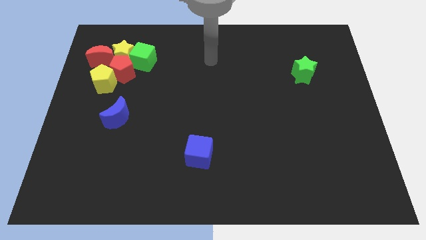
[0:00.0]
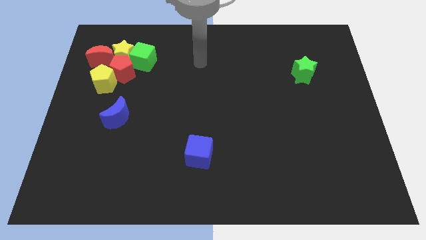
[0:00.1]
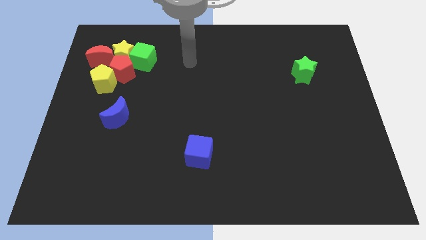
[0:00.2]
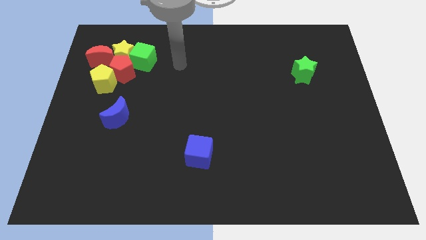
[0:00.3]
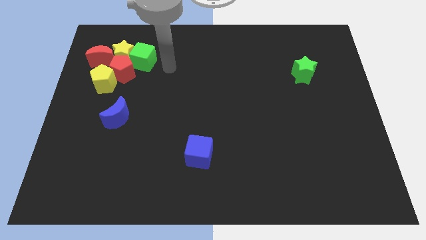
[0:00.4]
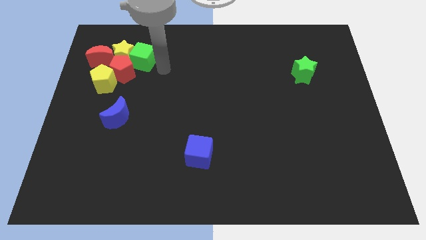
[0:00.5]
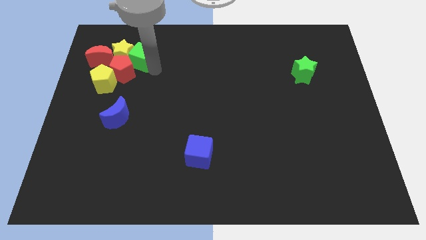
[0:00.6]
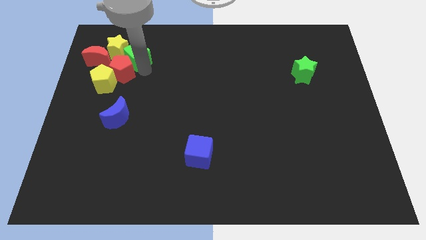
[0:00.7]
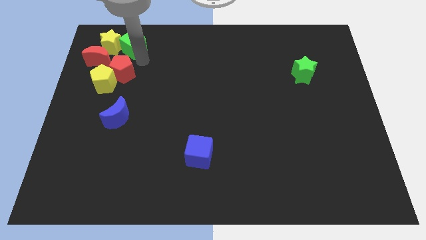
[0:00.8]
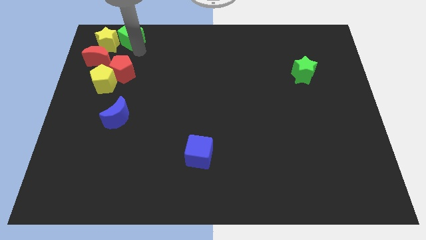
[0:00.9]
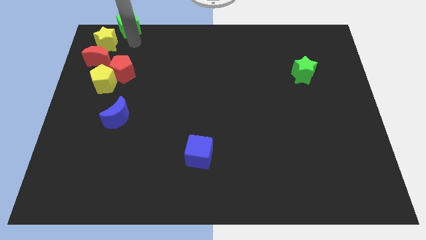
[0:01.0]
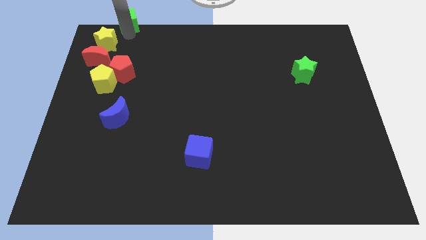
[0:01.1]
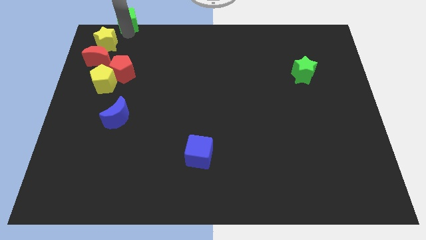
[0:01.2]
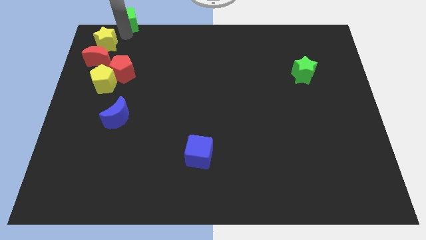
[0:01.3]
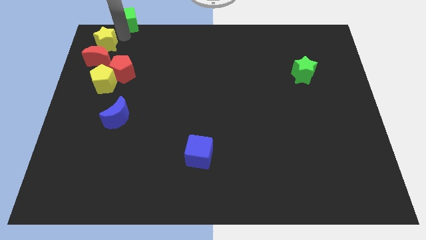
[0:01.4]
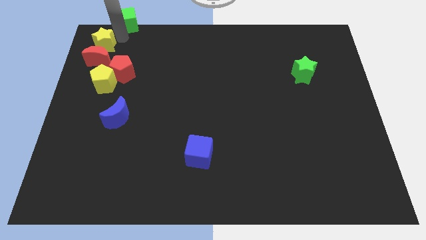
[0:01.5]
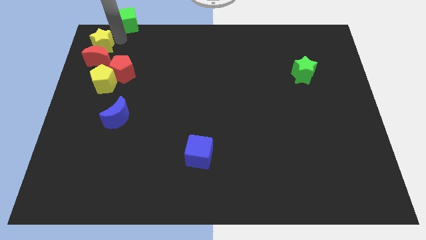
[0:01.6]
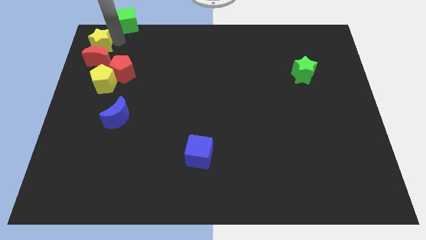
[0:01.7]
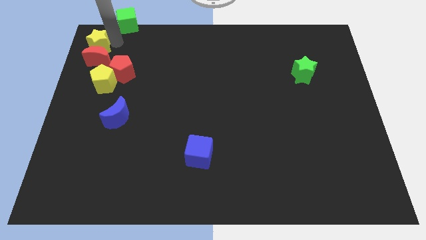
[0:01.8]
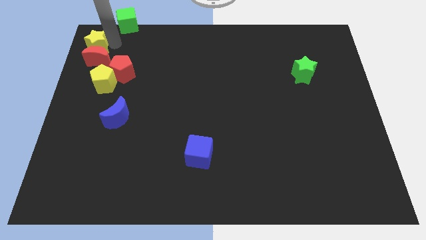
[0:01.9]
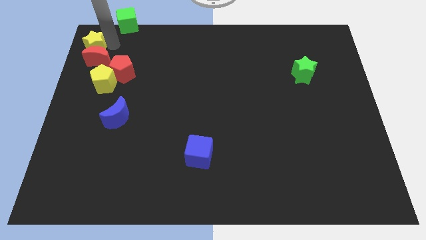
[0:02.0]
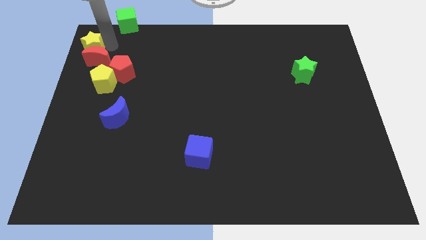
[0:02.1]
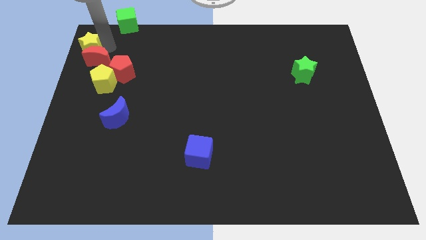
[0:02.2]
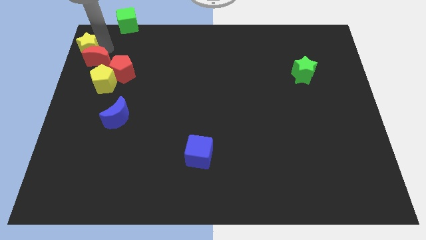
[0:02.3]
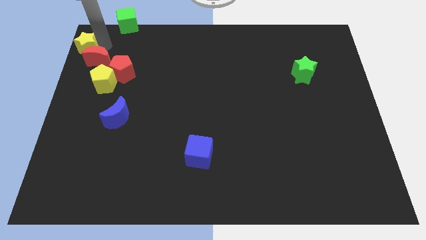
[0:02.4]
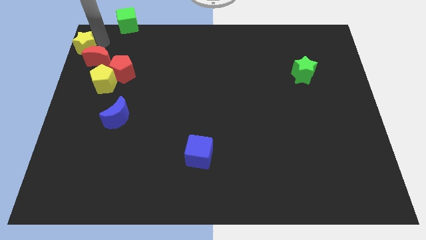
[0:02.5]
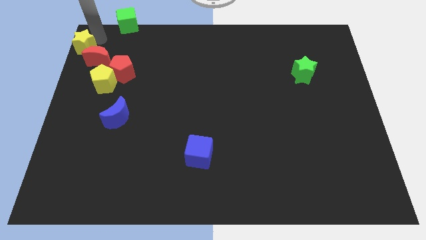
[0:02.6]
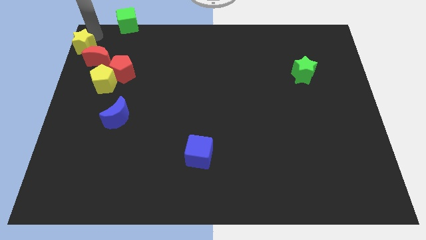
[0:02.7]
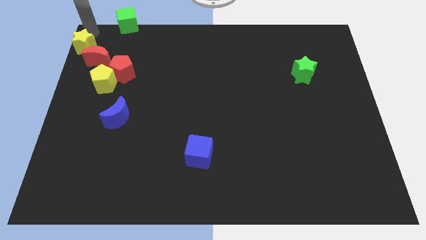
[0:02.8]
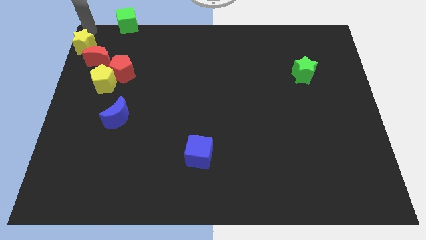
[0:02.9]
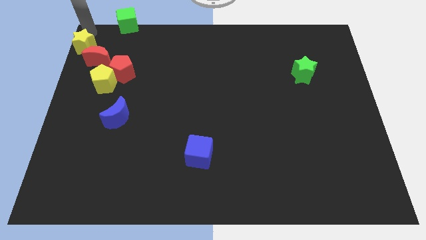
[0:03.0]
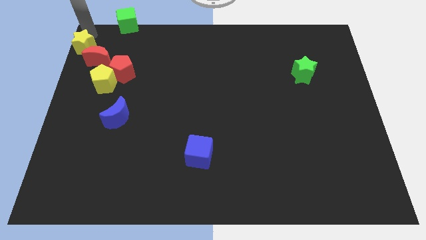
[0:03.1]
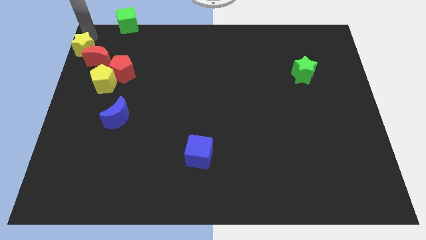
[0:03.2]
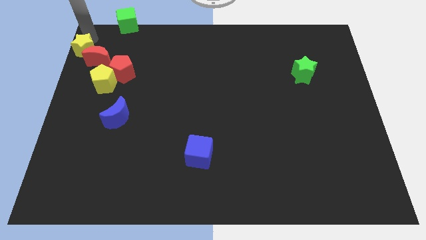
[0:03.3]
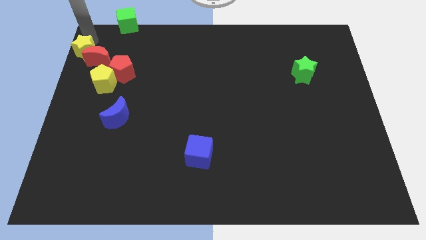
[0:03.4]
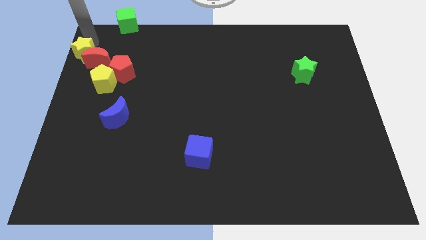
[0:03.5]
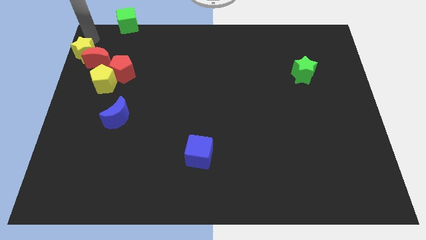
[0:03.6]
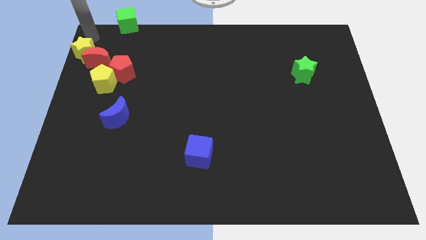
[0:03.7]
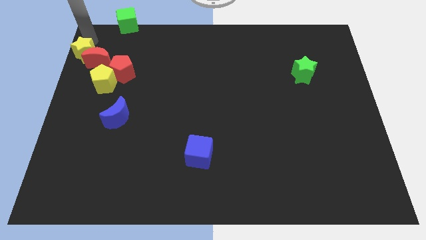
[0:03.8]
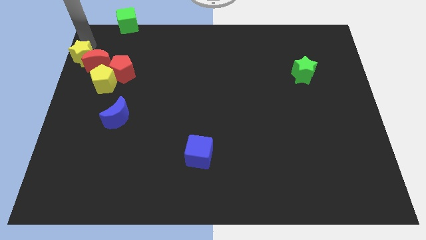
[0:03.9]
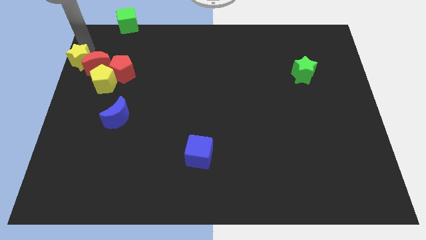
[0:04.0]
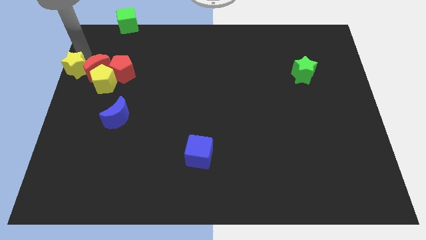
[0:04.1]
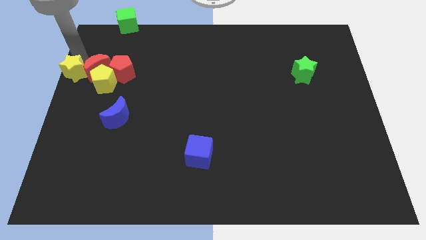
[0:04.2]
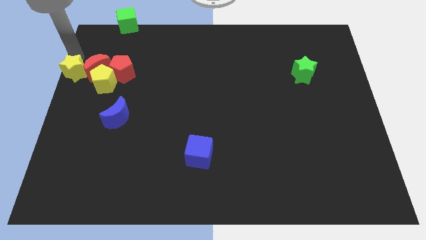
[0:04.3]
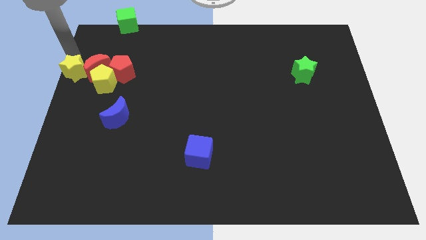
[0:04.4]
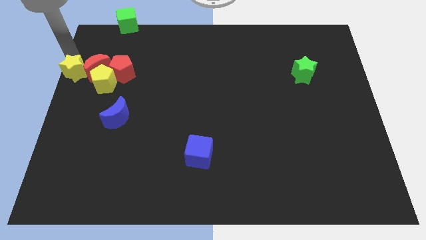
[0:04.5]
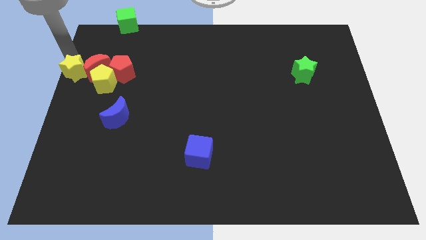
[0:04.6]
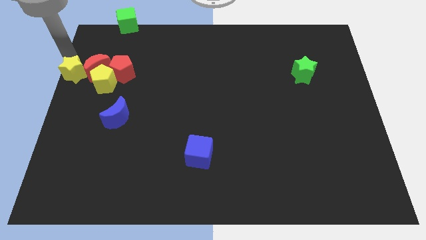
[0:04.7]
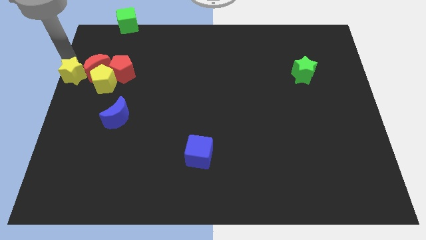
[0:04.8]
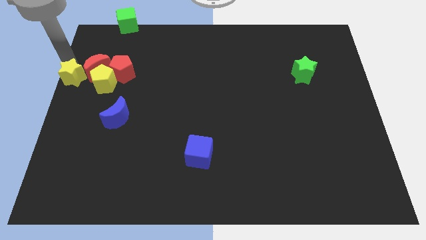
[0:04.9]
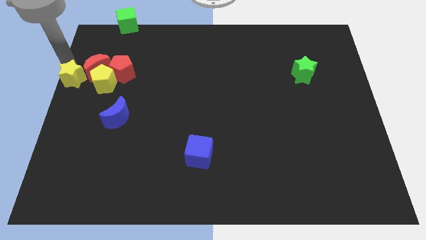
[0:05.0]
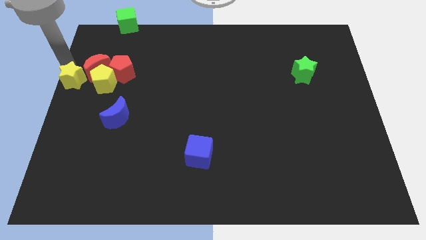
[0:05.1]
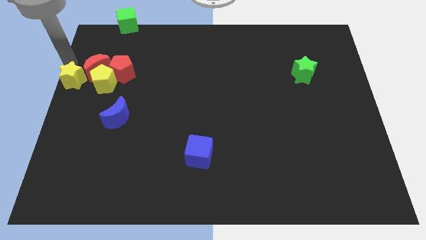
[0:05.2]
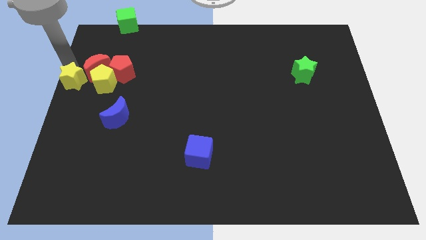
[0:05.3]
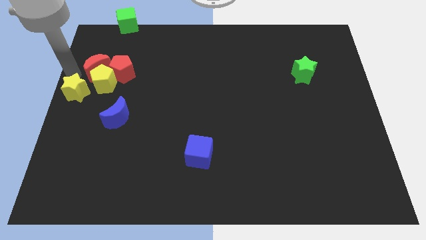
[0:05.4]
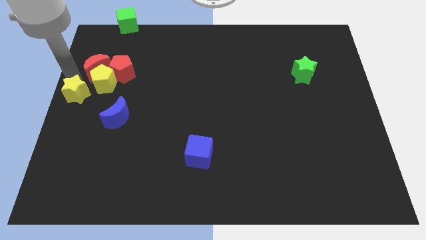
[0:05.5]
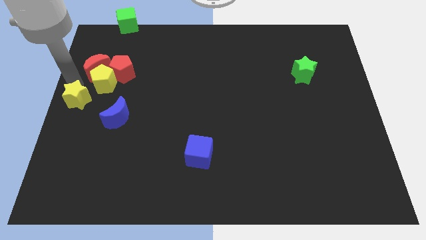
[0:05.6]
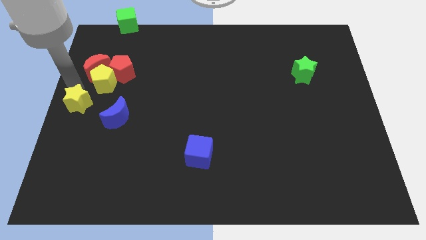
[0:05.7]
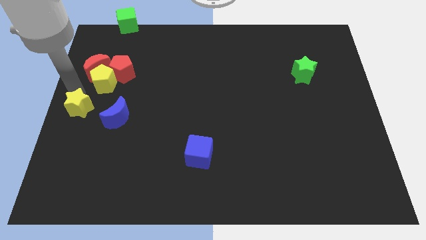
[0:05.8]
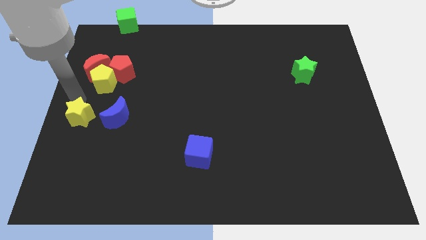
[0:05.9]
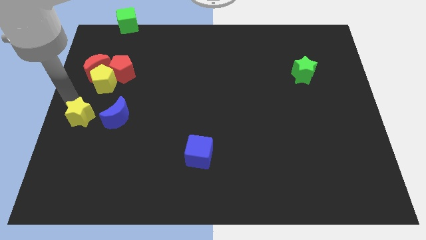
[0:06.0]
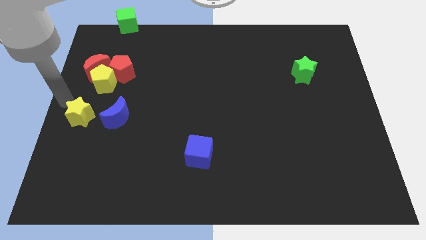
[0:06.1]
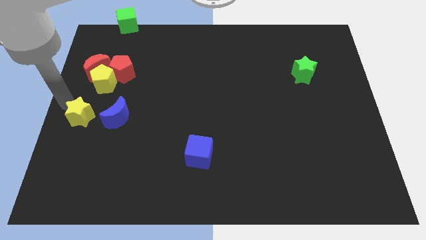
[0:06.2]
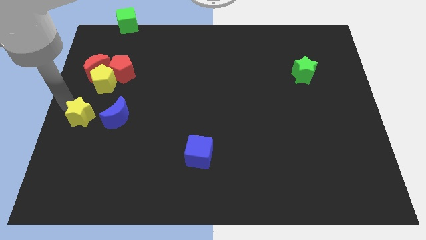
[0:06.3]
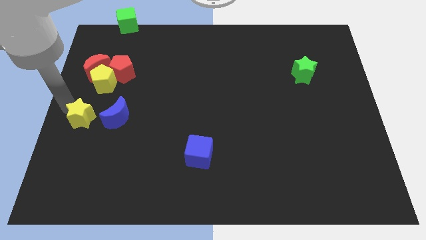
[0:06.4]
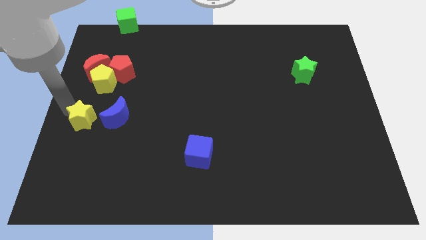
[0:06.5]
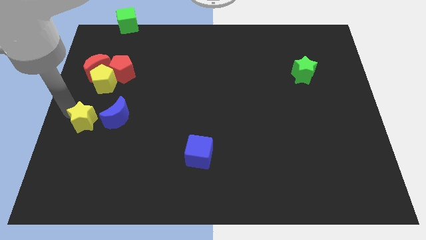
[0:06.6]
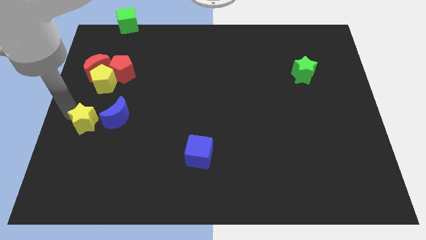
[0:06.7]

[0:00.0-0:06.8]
push the yellow star downwards

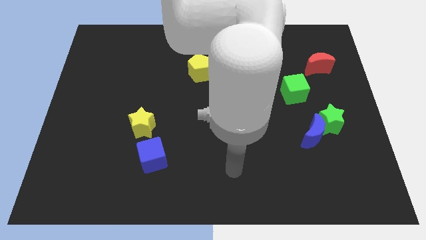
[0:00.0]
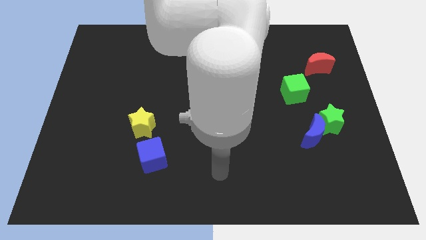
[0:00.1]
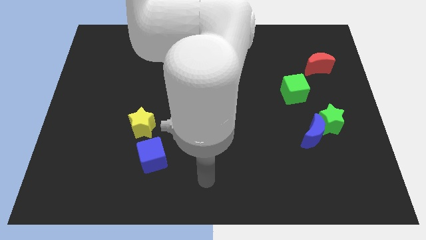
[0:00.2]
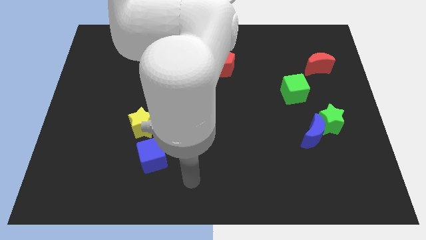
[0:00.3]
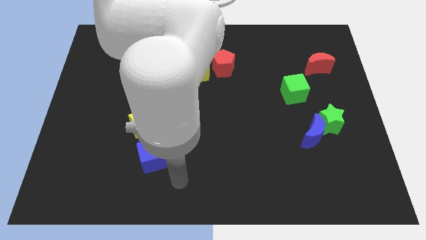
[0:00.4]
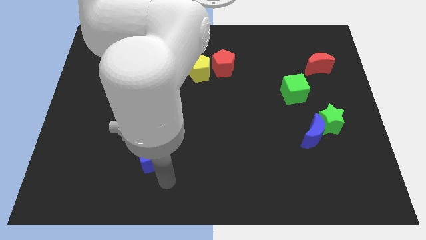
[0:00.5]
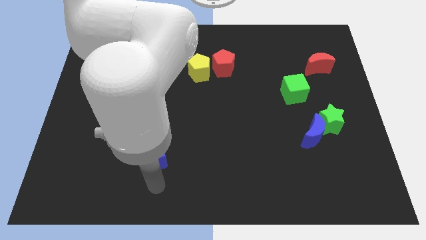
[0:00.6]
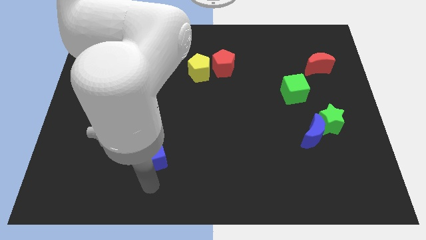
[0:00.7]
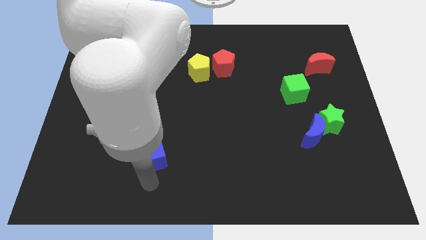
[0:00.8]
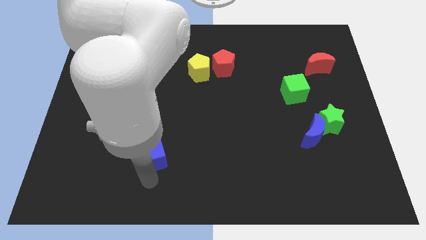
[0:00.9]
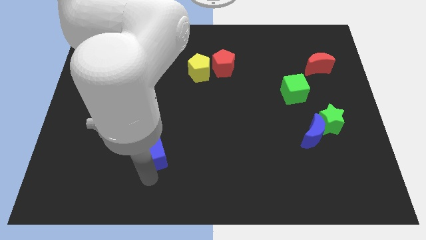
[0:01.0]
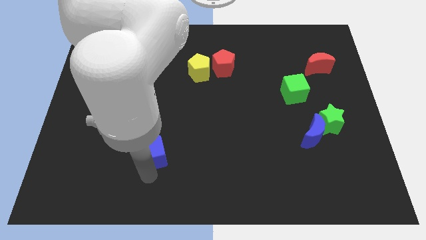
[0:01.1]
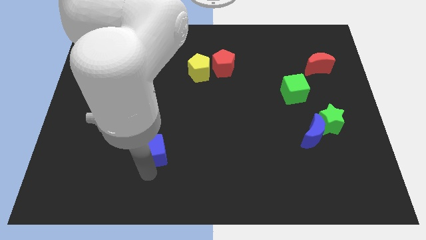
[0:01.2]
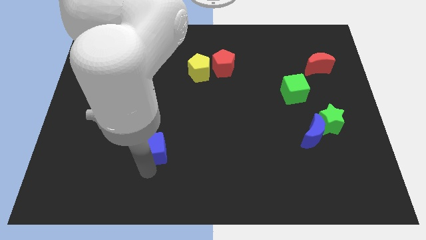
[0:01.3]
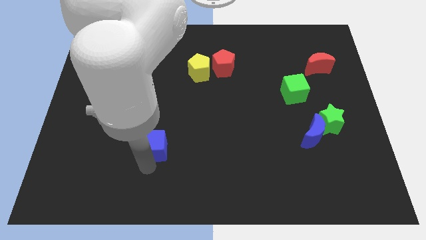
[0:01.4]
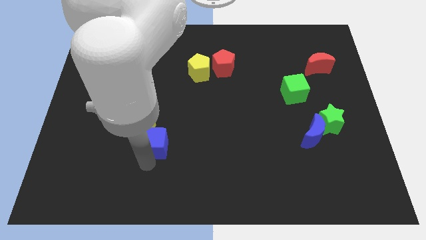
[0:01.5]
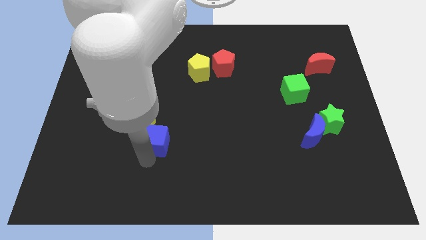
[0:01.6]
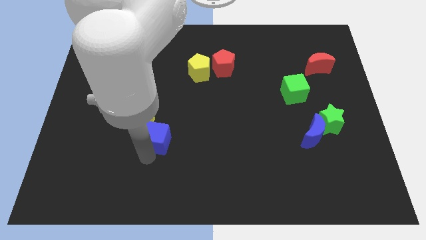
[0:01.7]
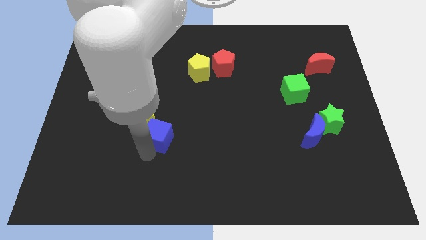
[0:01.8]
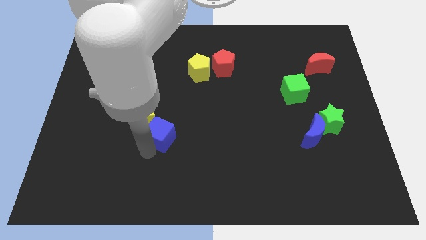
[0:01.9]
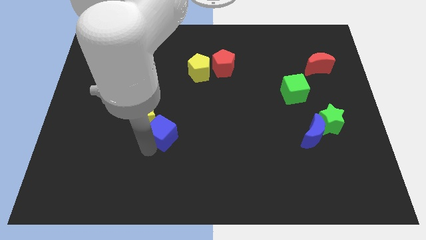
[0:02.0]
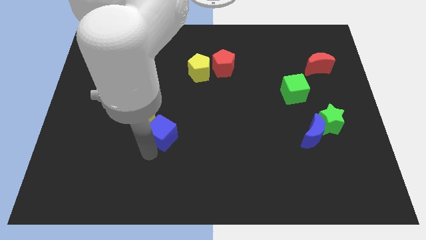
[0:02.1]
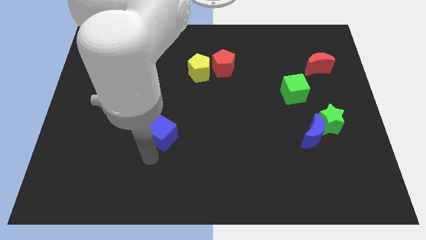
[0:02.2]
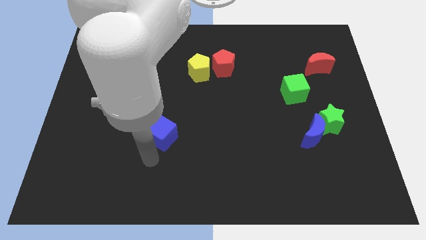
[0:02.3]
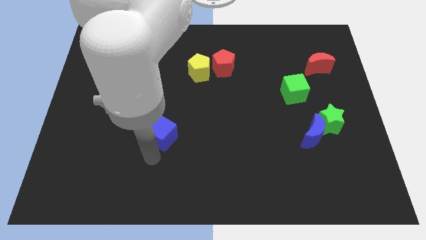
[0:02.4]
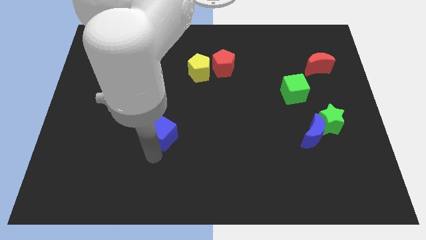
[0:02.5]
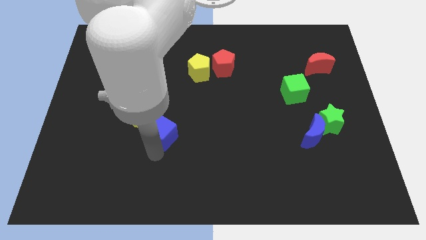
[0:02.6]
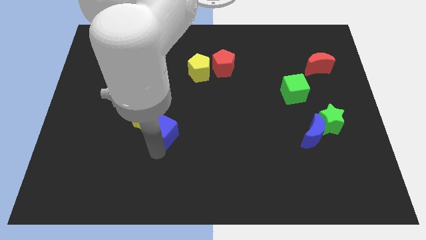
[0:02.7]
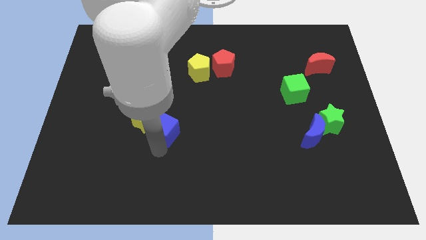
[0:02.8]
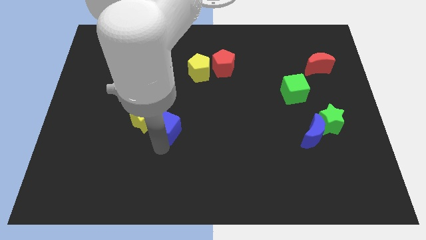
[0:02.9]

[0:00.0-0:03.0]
push the blue cube a little bit upwards
